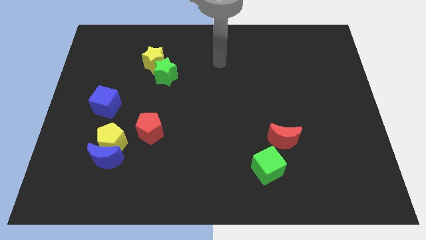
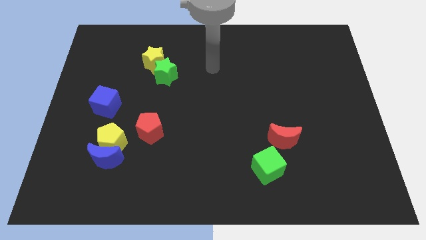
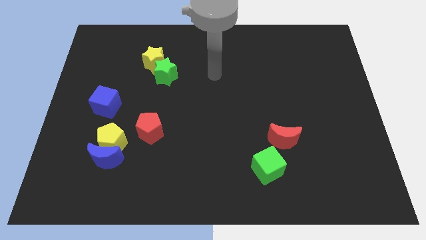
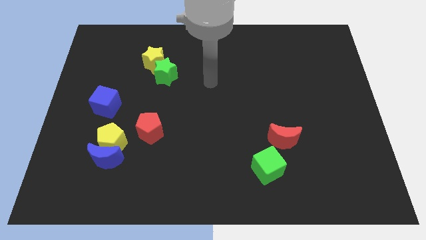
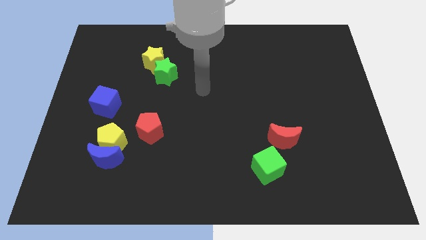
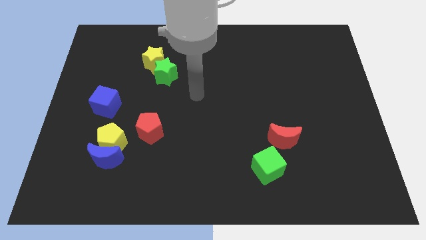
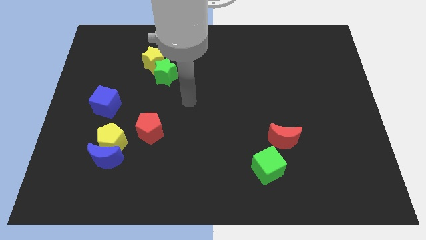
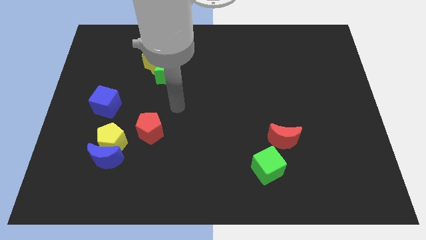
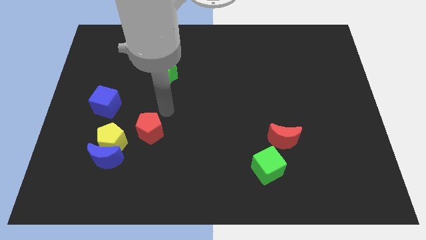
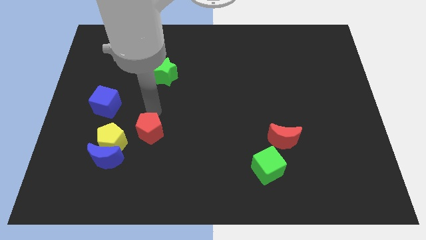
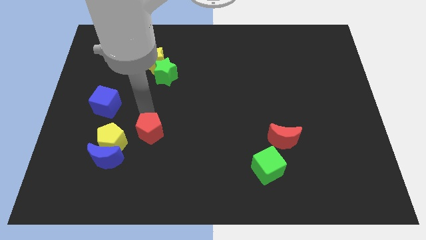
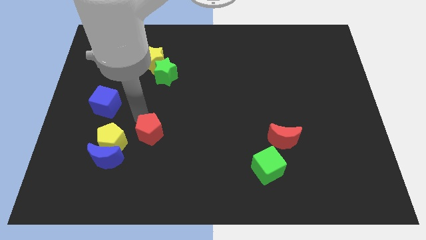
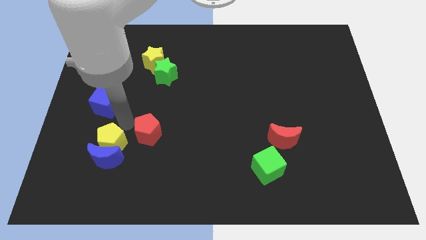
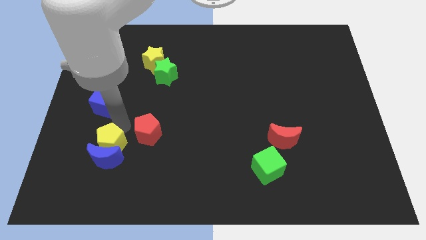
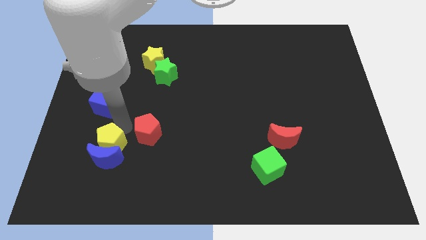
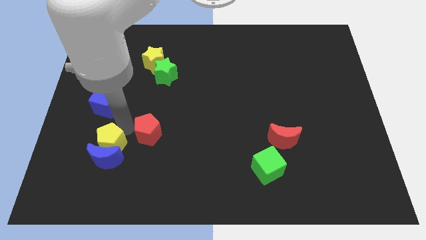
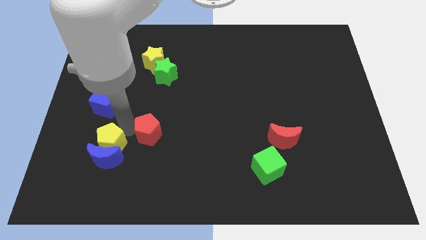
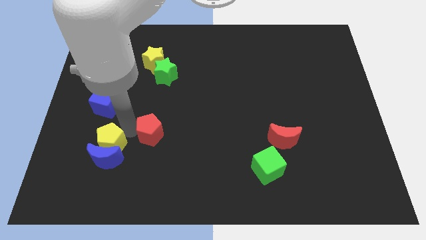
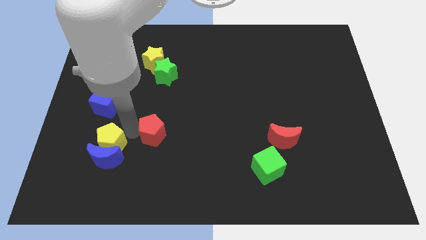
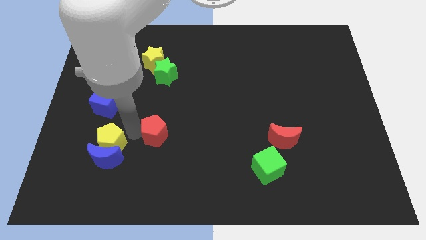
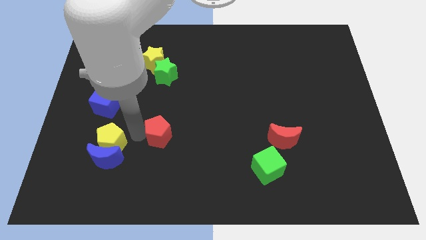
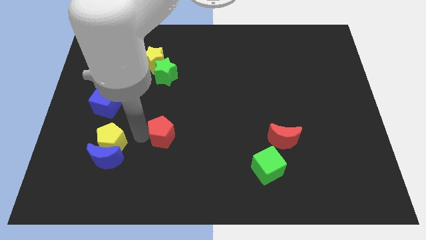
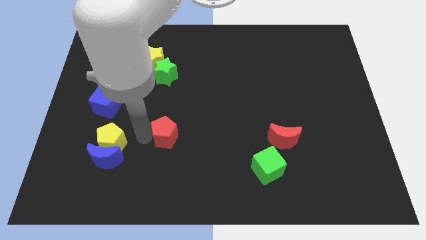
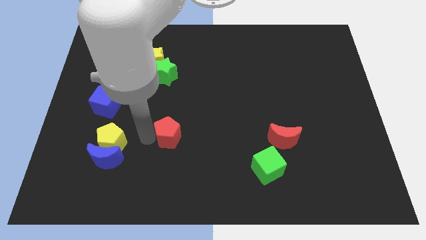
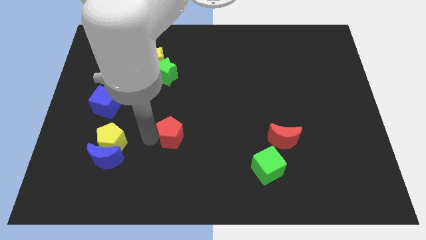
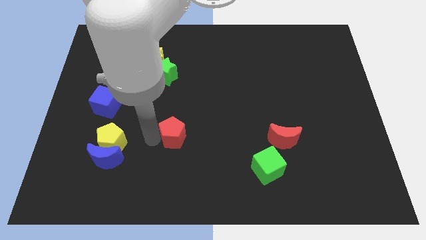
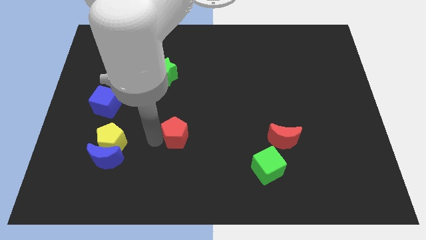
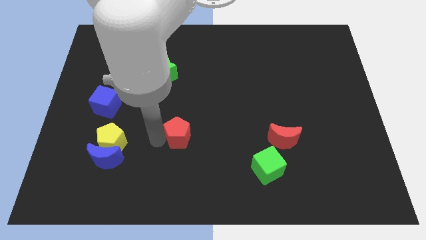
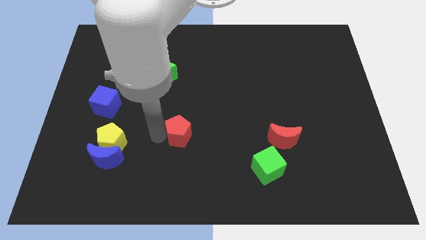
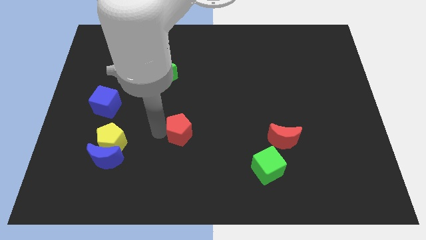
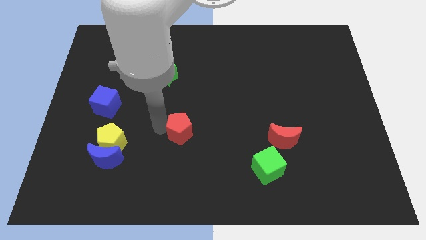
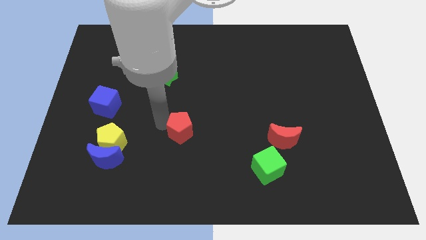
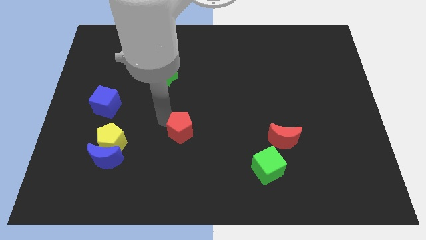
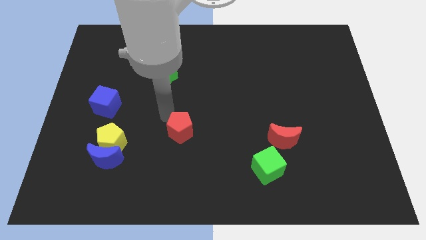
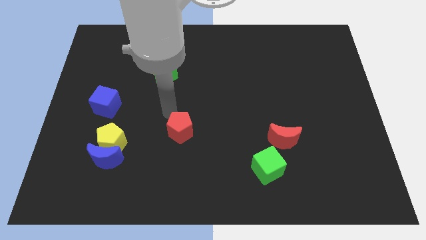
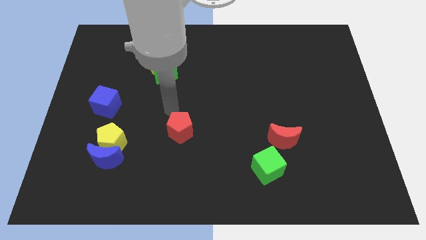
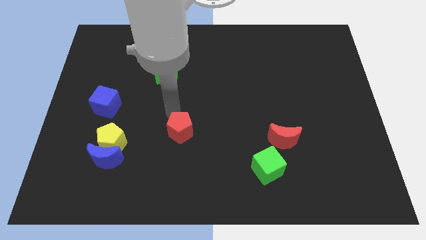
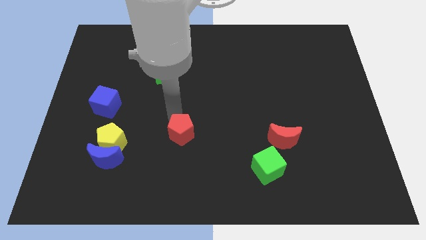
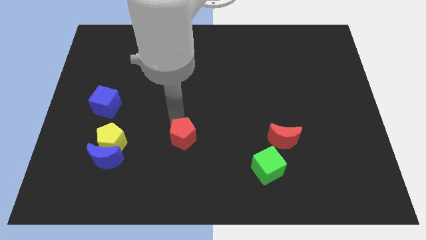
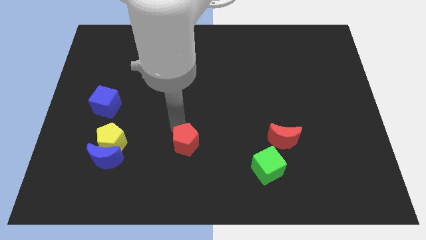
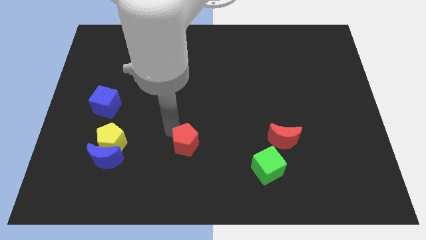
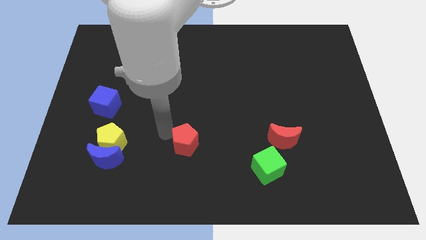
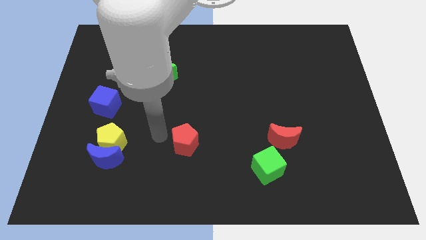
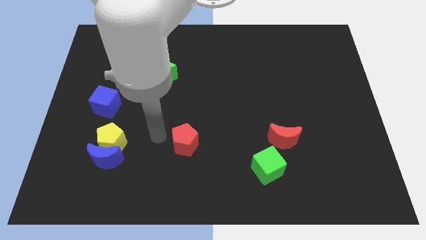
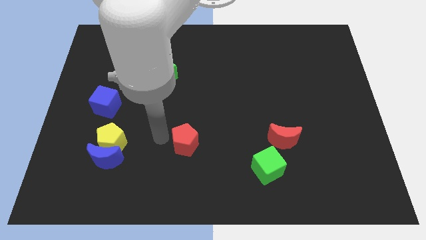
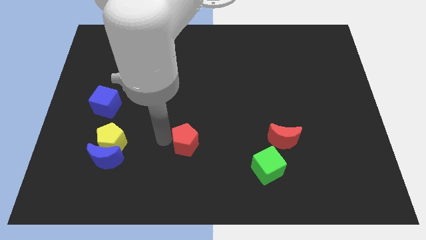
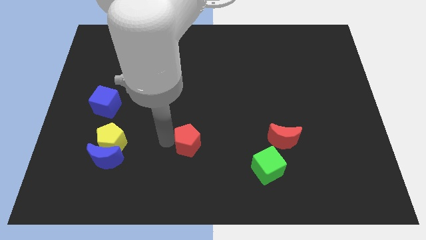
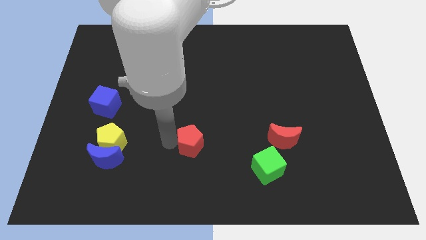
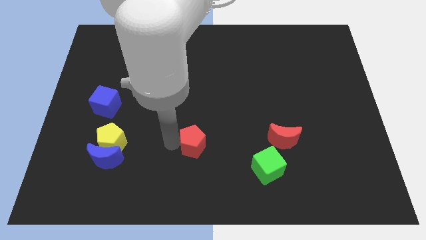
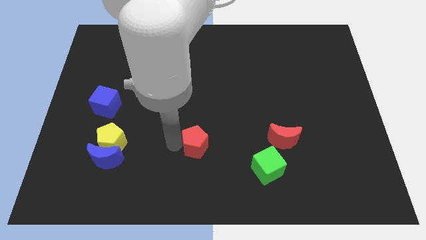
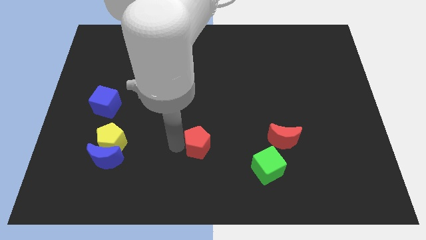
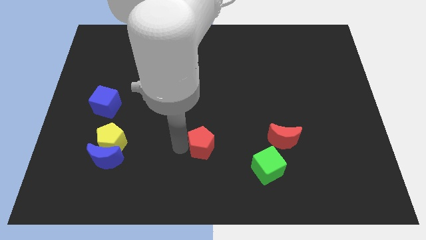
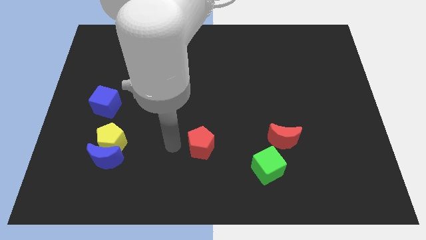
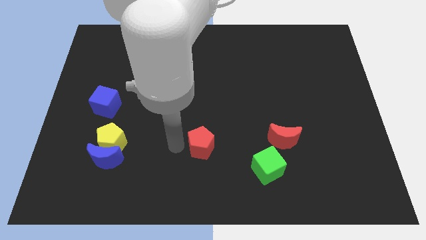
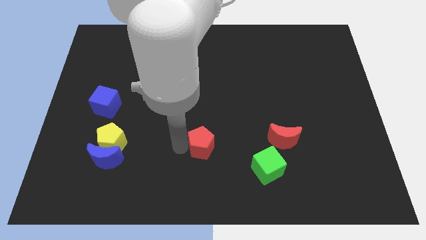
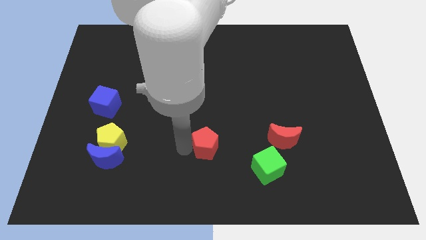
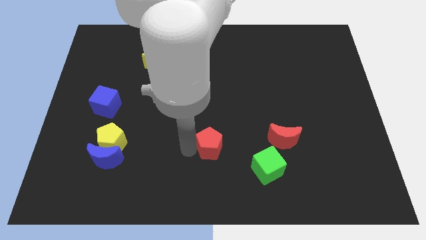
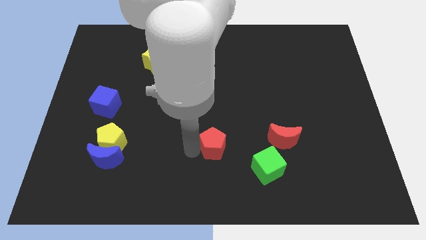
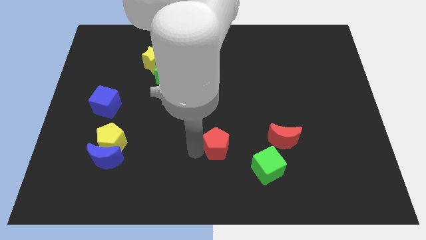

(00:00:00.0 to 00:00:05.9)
push the red pentagon to the top left of the green cube

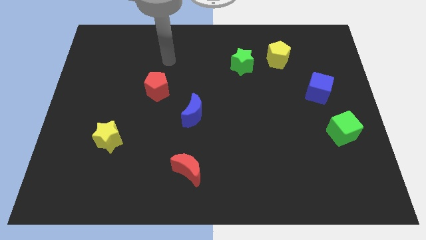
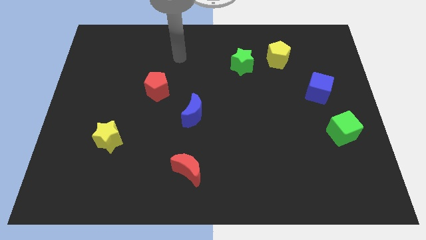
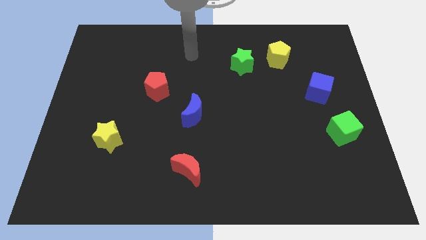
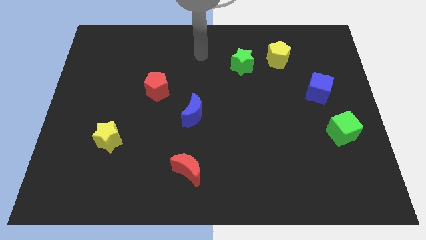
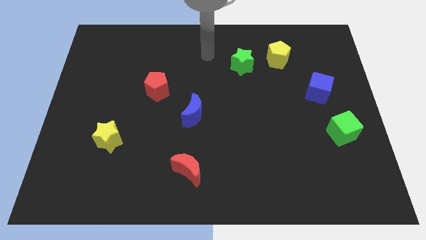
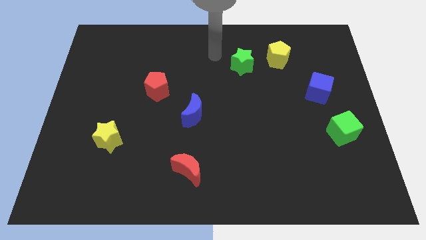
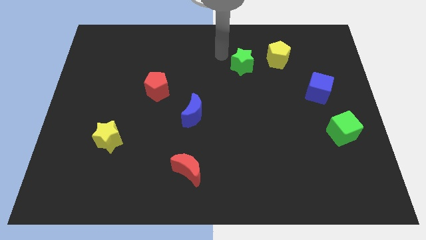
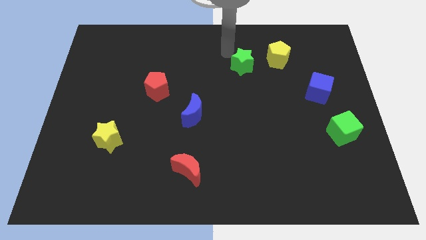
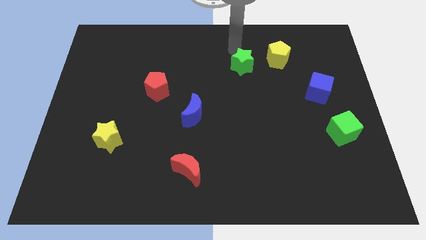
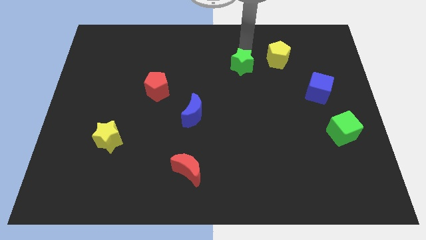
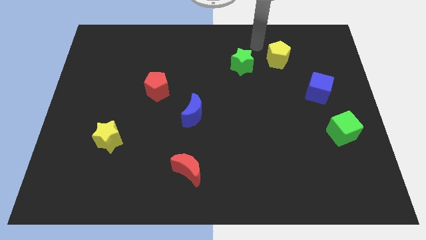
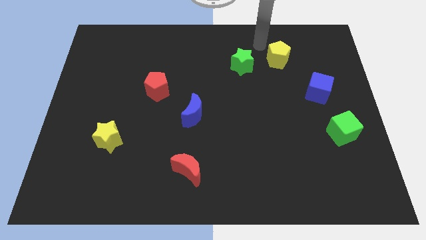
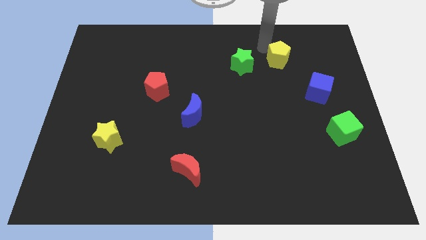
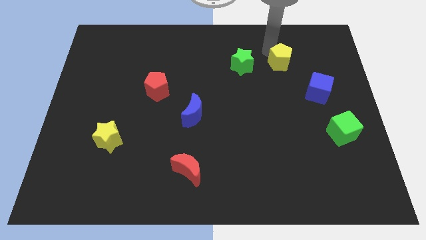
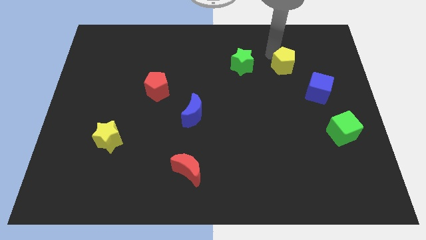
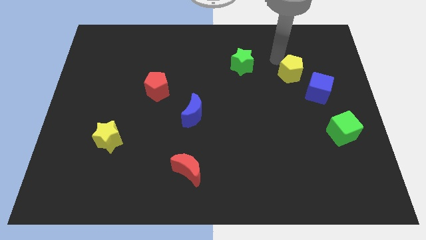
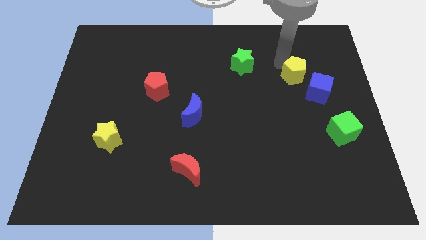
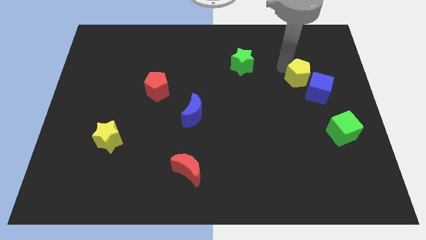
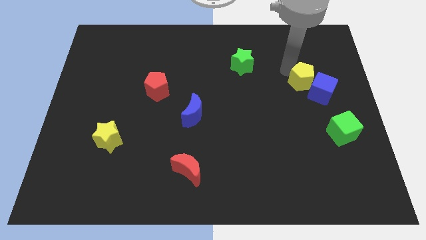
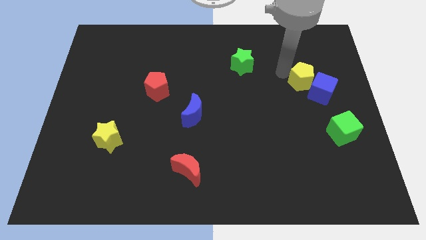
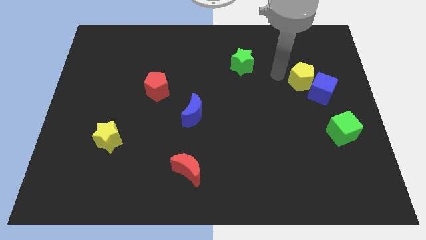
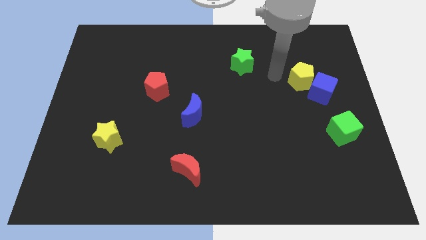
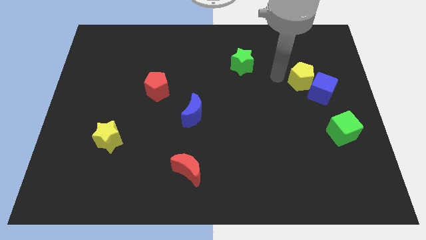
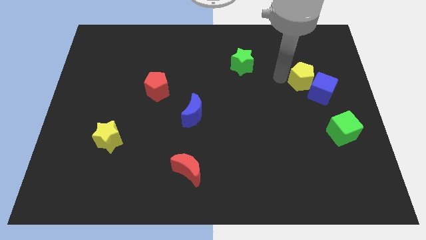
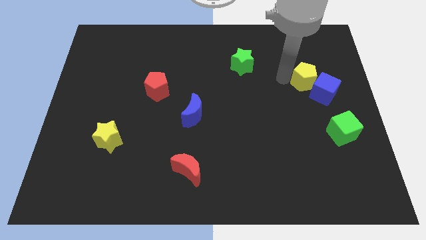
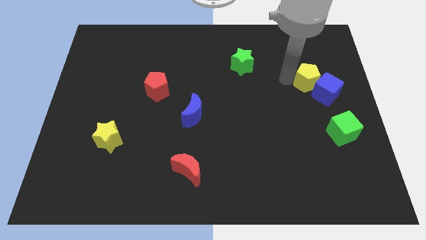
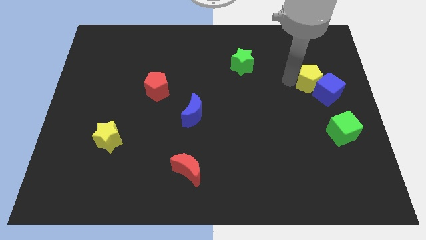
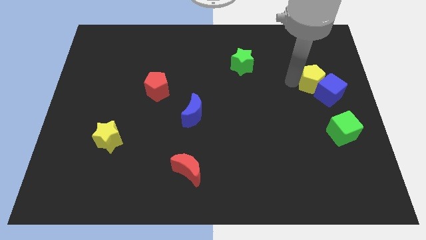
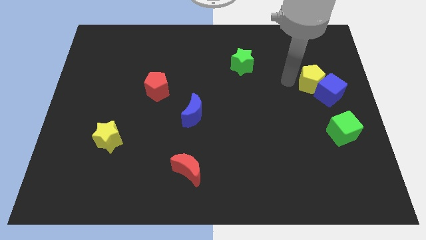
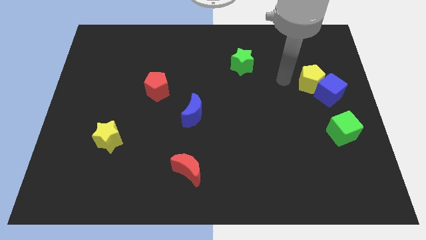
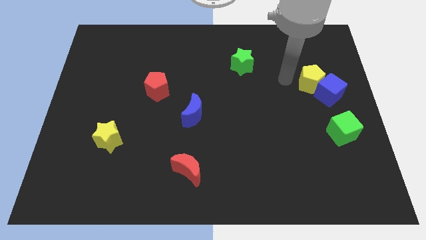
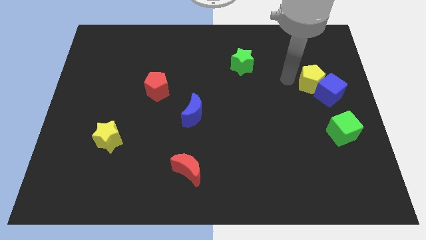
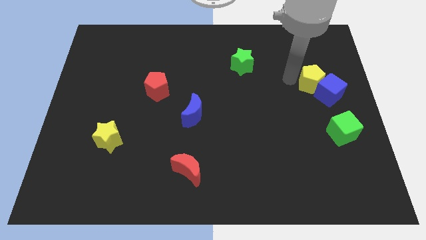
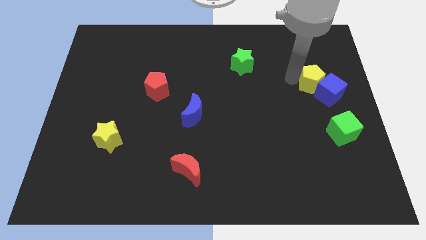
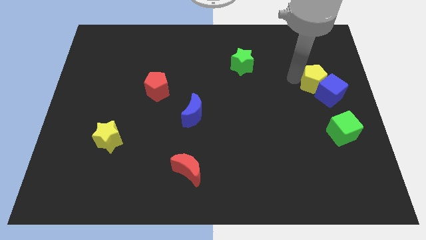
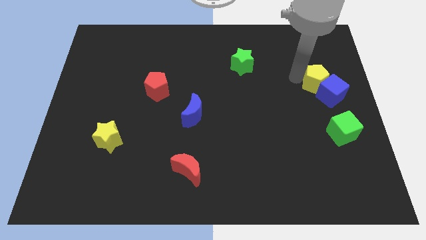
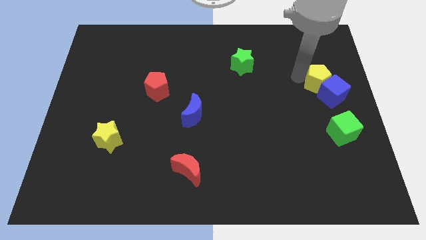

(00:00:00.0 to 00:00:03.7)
push the yellow pentagon above the green cube
